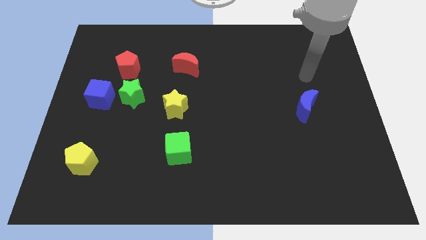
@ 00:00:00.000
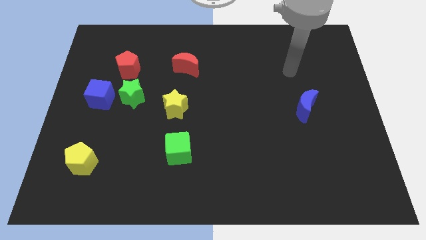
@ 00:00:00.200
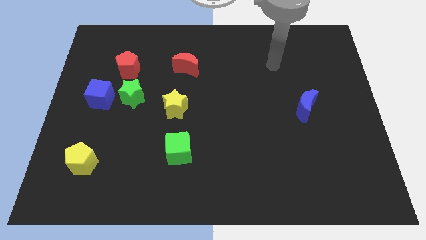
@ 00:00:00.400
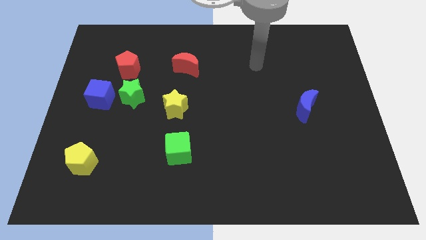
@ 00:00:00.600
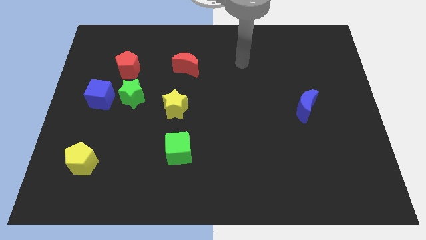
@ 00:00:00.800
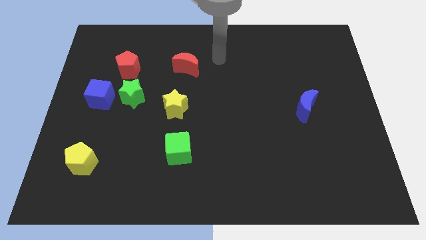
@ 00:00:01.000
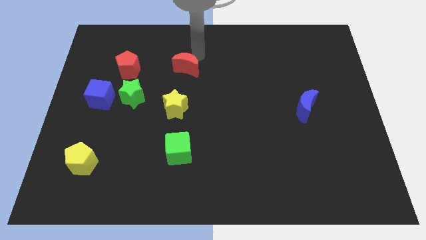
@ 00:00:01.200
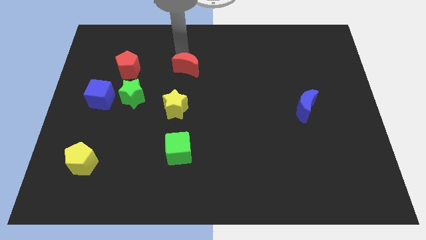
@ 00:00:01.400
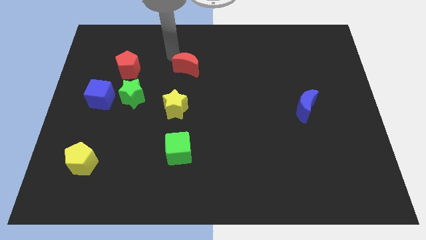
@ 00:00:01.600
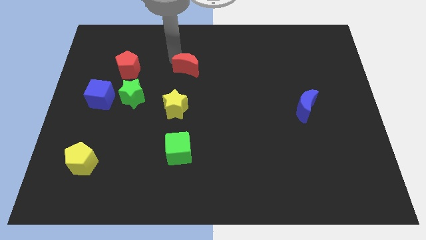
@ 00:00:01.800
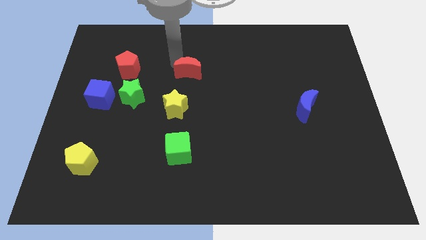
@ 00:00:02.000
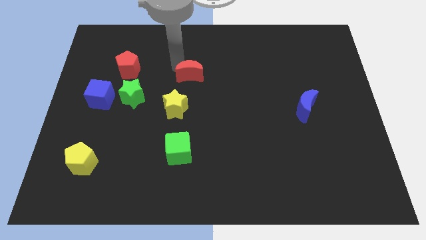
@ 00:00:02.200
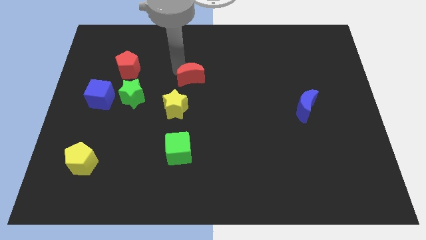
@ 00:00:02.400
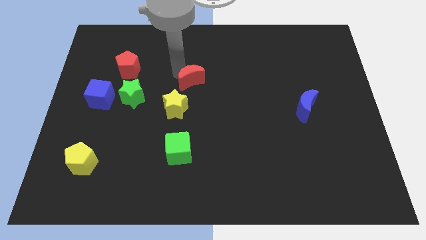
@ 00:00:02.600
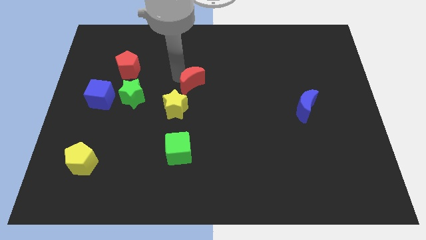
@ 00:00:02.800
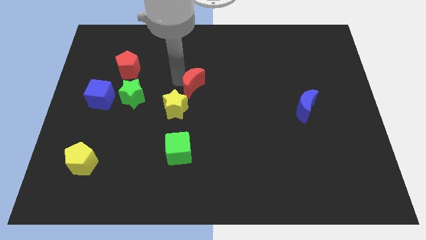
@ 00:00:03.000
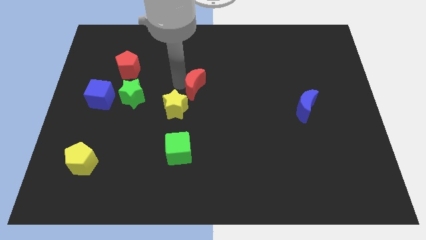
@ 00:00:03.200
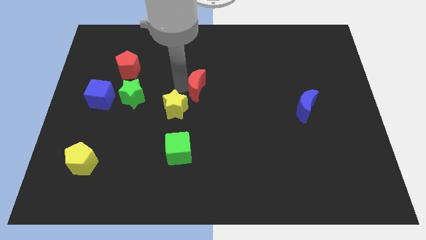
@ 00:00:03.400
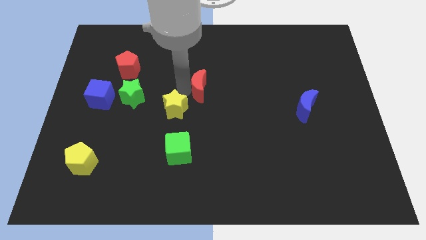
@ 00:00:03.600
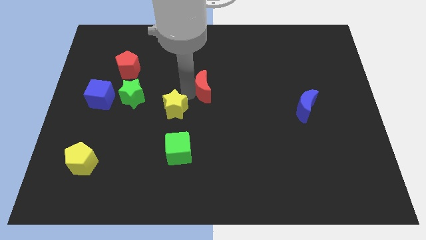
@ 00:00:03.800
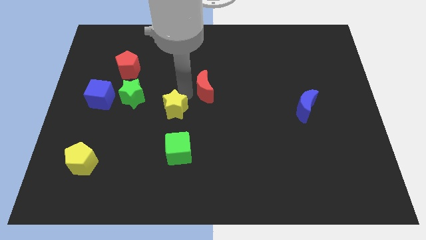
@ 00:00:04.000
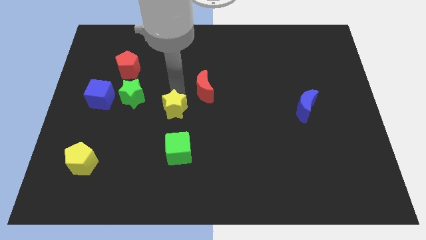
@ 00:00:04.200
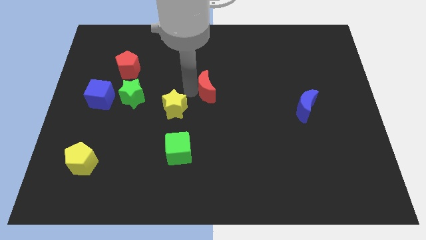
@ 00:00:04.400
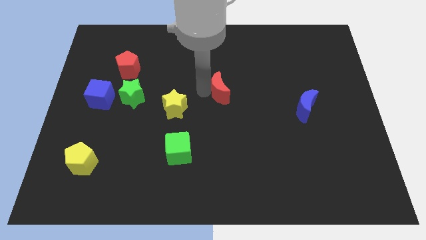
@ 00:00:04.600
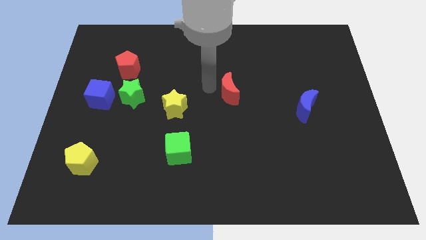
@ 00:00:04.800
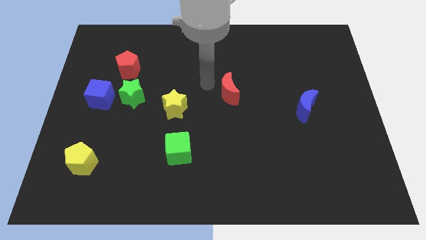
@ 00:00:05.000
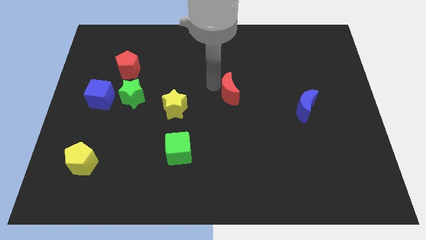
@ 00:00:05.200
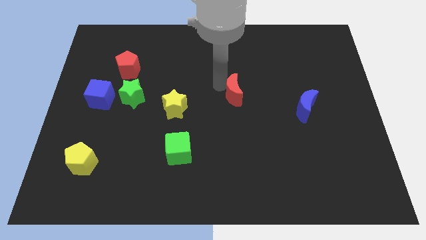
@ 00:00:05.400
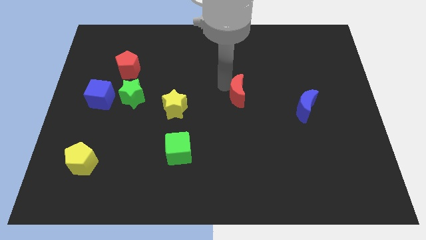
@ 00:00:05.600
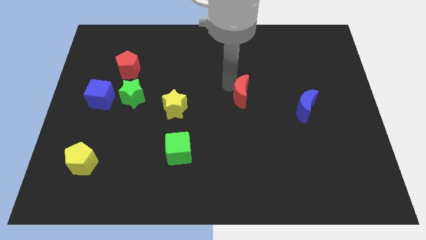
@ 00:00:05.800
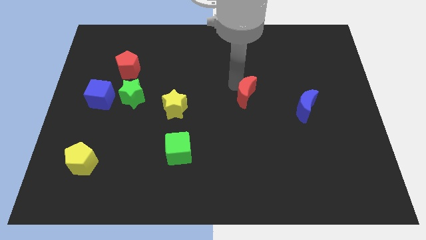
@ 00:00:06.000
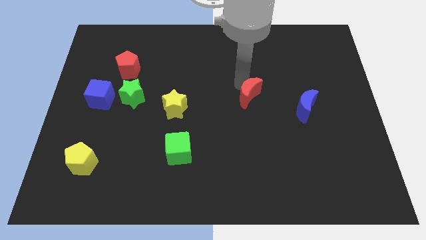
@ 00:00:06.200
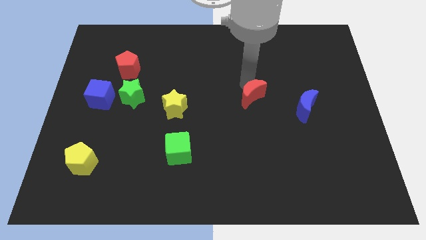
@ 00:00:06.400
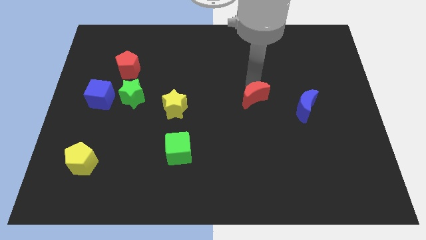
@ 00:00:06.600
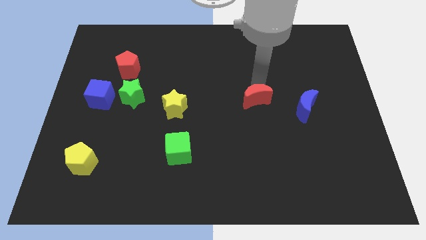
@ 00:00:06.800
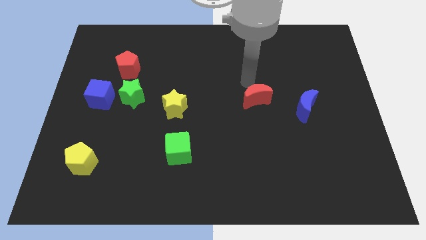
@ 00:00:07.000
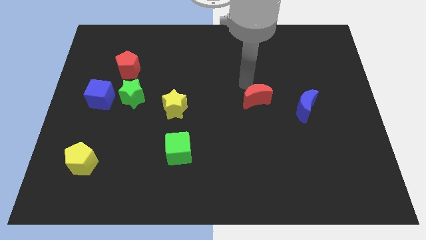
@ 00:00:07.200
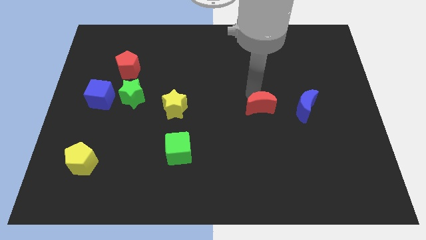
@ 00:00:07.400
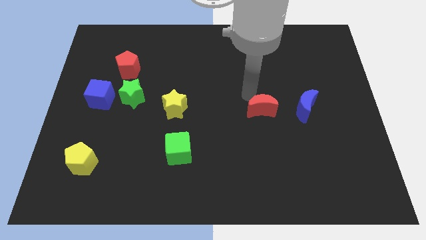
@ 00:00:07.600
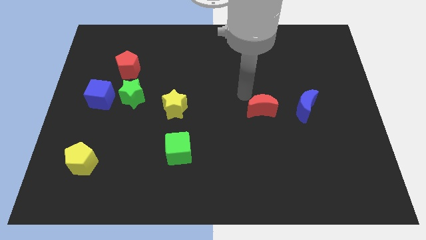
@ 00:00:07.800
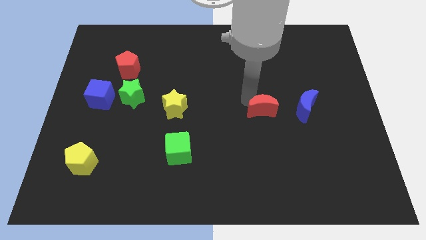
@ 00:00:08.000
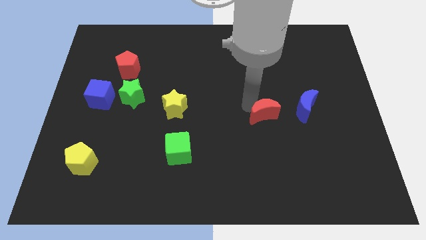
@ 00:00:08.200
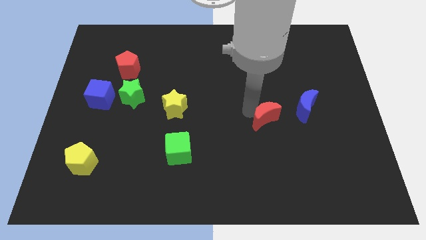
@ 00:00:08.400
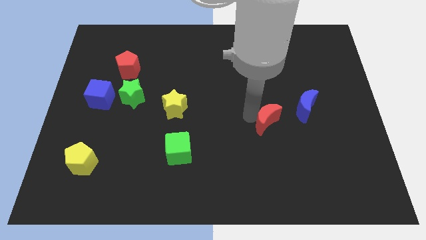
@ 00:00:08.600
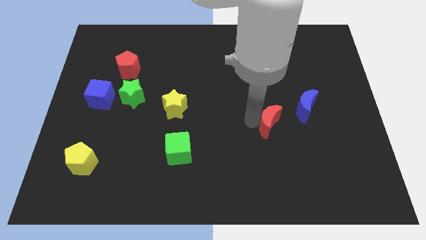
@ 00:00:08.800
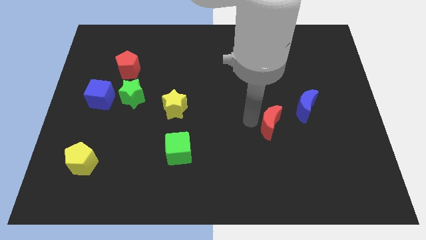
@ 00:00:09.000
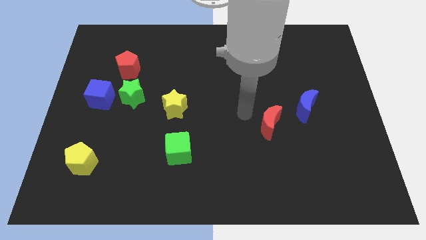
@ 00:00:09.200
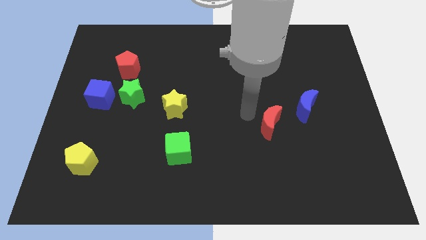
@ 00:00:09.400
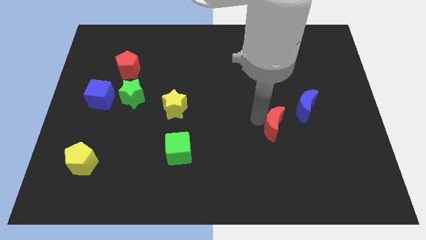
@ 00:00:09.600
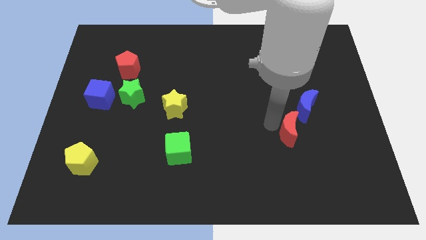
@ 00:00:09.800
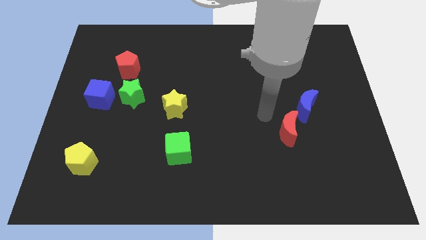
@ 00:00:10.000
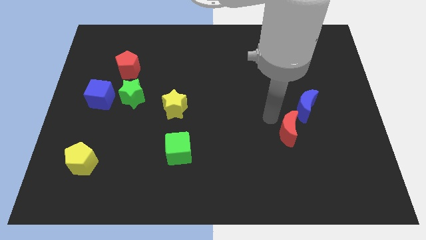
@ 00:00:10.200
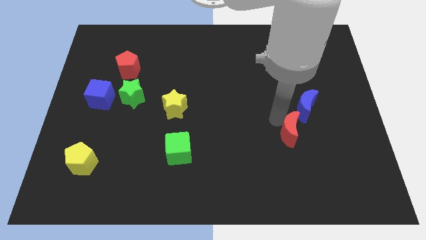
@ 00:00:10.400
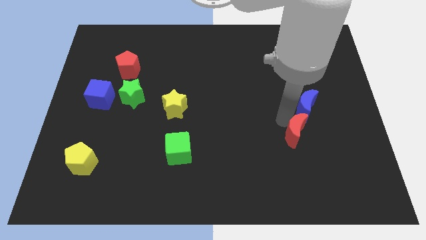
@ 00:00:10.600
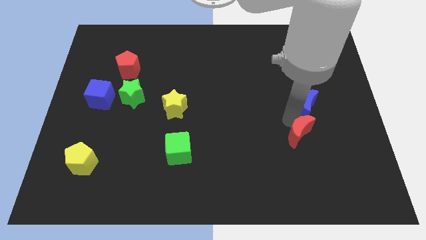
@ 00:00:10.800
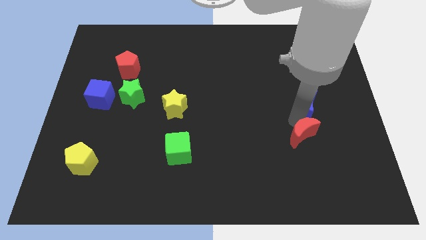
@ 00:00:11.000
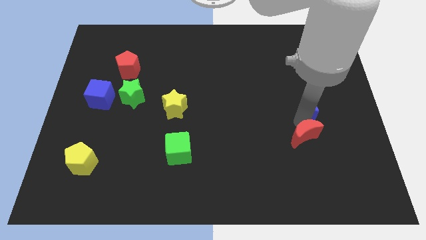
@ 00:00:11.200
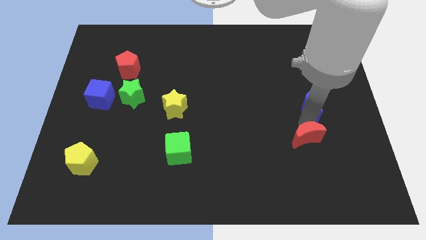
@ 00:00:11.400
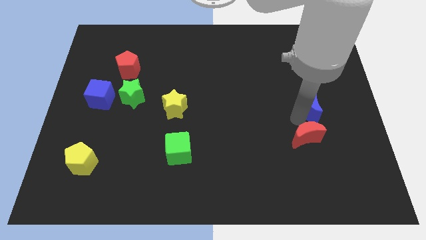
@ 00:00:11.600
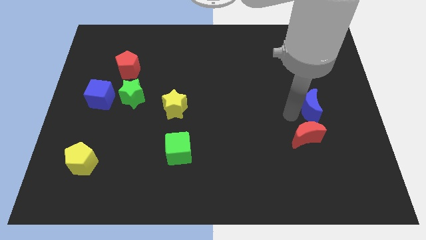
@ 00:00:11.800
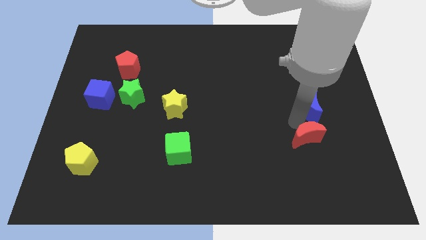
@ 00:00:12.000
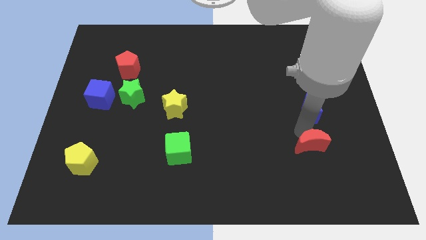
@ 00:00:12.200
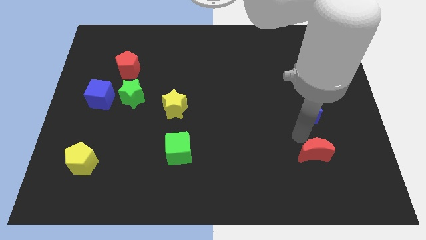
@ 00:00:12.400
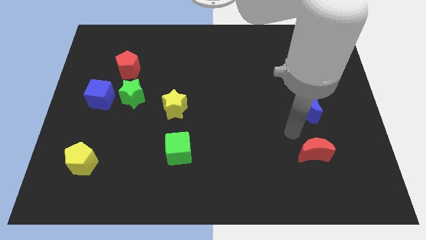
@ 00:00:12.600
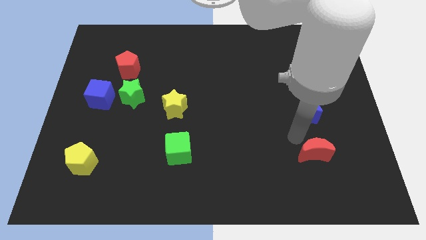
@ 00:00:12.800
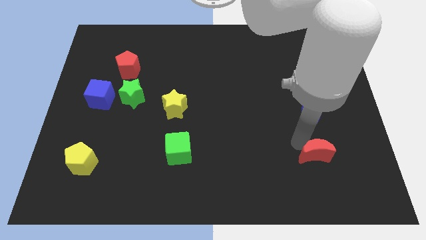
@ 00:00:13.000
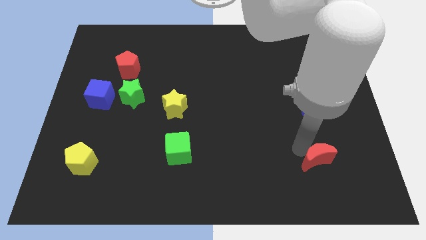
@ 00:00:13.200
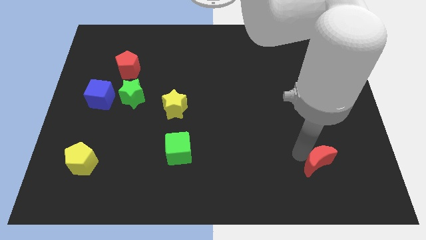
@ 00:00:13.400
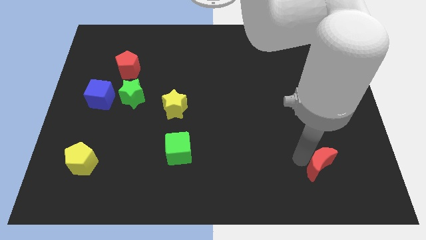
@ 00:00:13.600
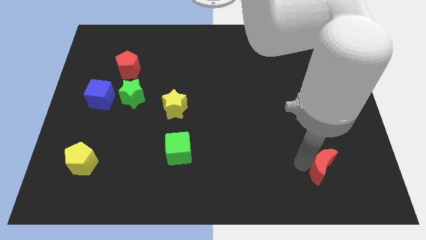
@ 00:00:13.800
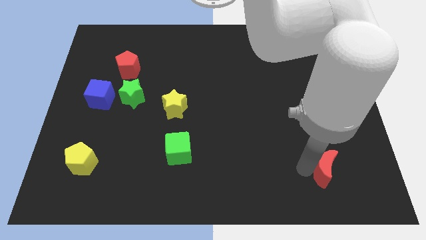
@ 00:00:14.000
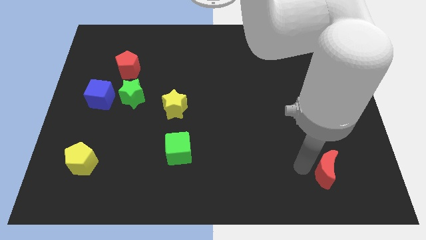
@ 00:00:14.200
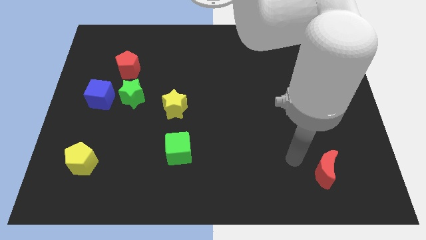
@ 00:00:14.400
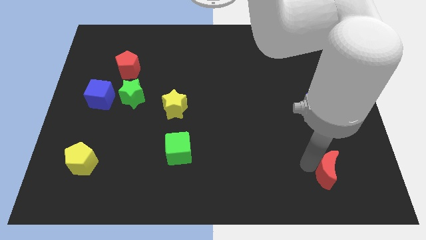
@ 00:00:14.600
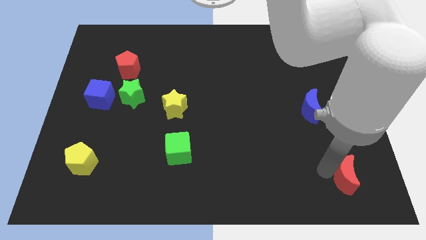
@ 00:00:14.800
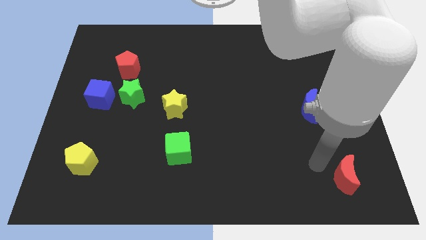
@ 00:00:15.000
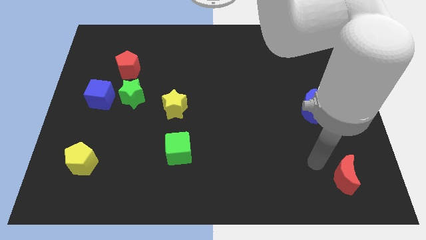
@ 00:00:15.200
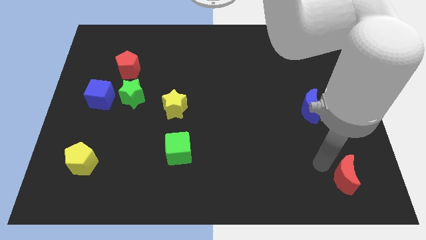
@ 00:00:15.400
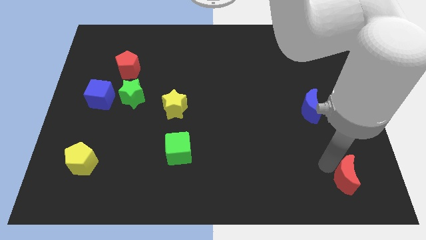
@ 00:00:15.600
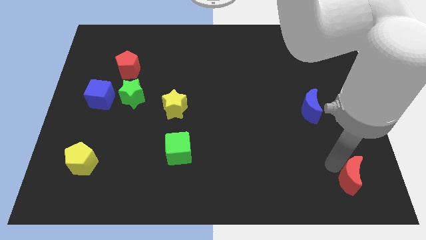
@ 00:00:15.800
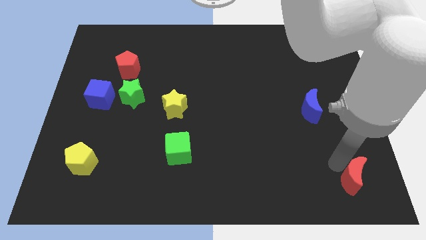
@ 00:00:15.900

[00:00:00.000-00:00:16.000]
move the red moon to the bottom right of the board
